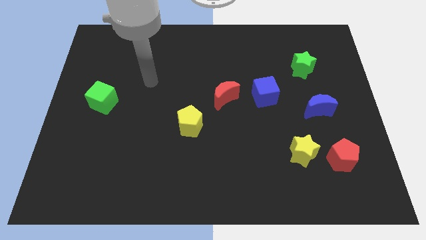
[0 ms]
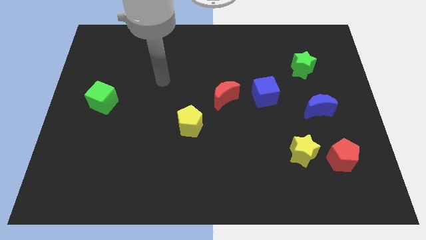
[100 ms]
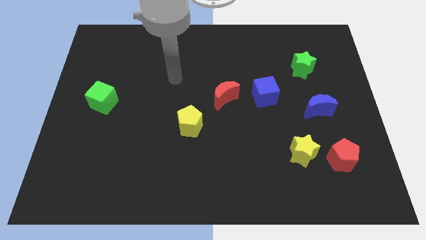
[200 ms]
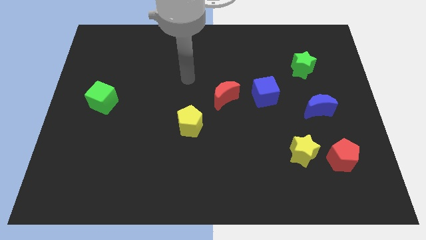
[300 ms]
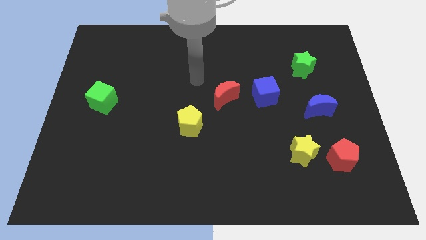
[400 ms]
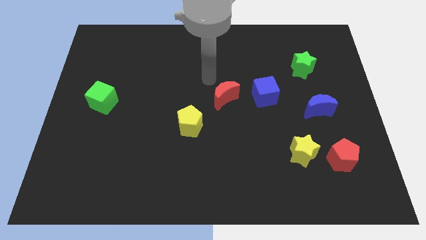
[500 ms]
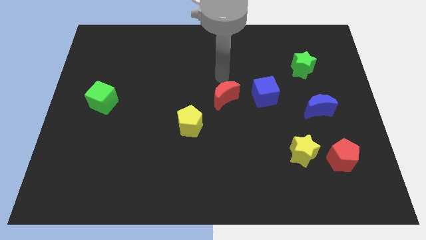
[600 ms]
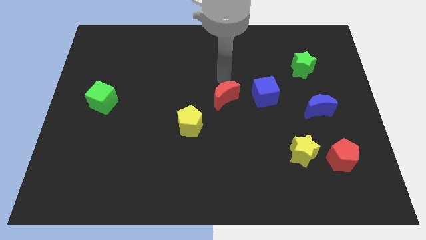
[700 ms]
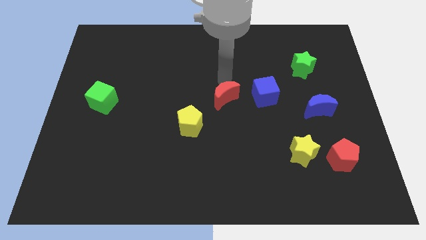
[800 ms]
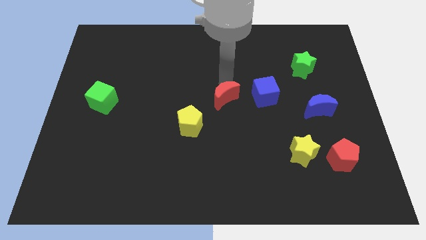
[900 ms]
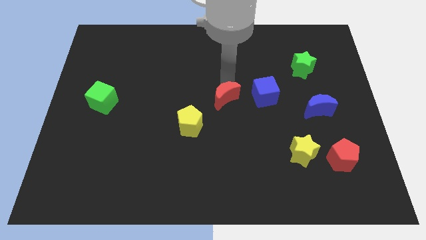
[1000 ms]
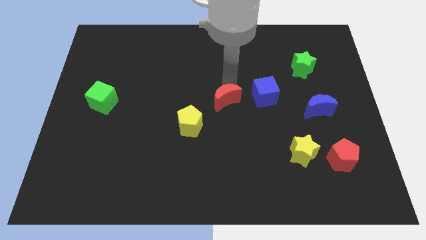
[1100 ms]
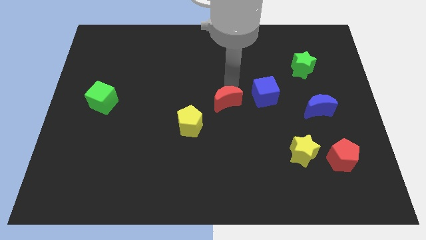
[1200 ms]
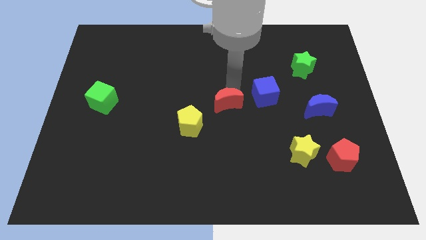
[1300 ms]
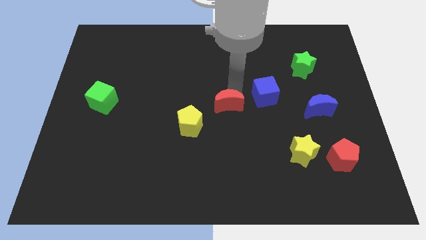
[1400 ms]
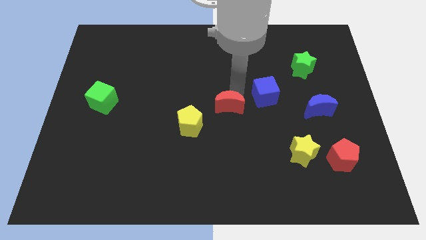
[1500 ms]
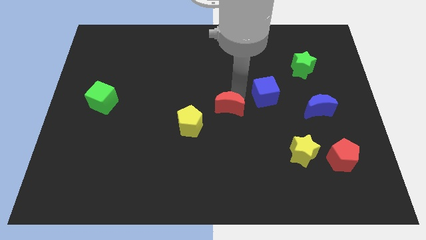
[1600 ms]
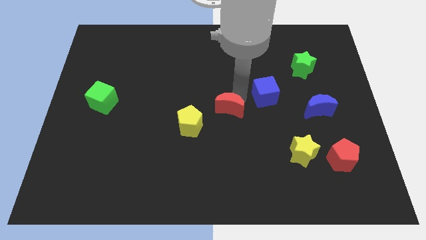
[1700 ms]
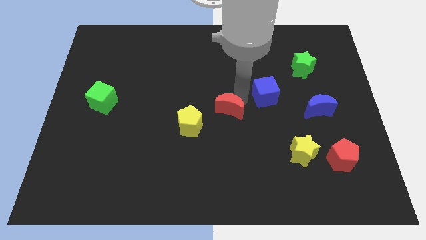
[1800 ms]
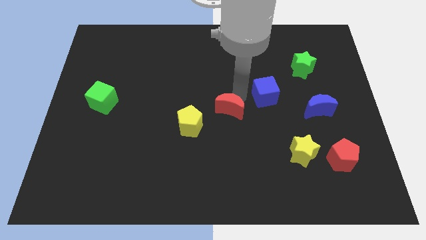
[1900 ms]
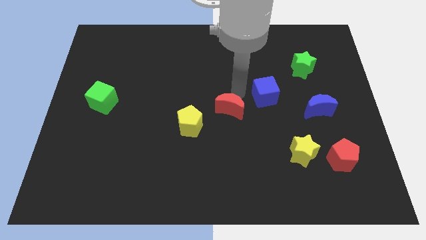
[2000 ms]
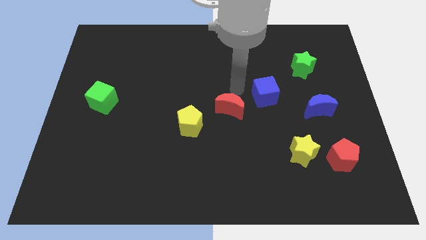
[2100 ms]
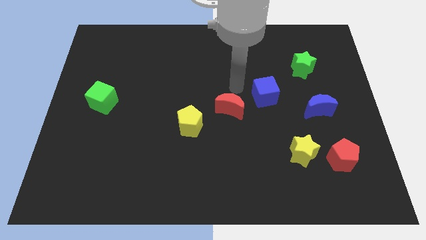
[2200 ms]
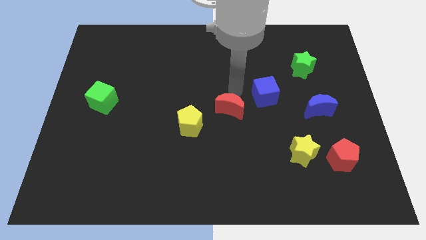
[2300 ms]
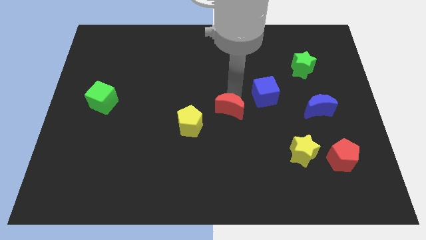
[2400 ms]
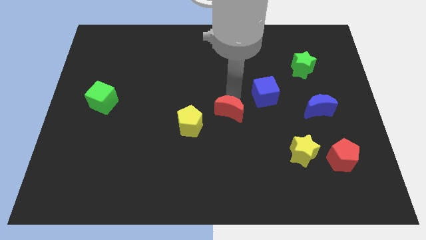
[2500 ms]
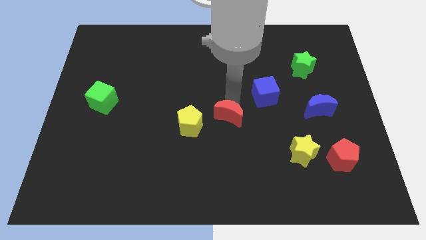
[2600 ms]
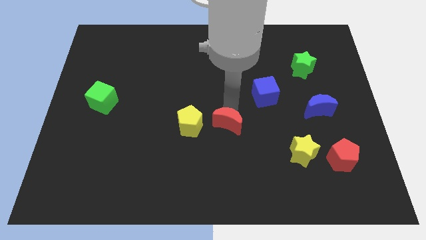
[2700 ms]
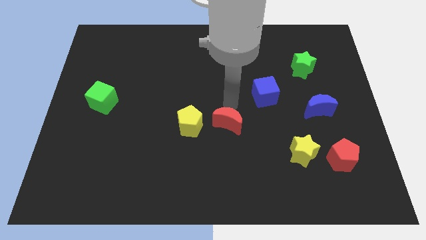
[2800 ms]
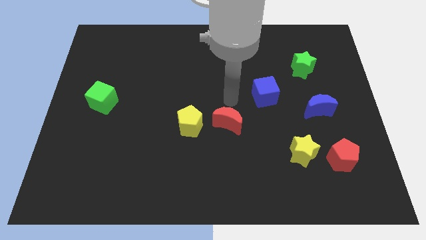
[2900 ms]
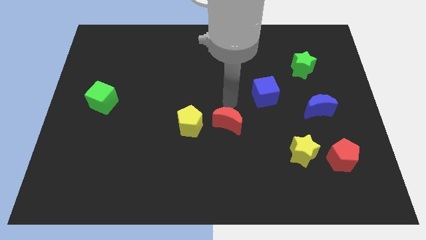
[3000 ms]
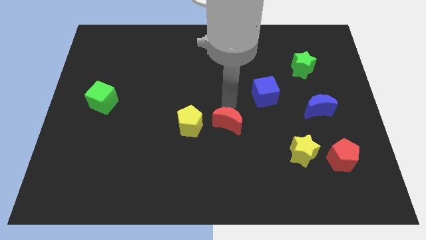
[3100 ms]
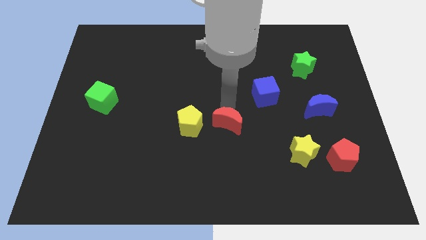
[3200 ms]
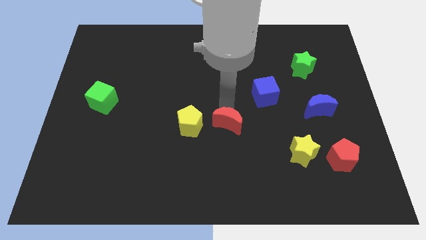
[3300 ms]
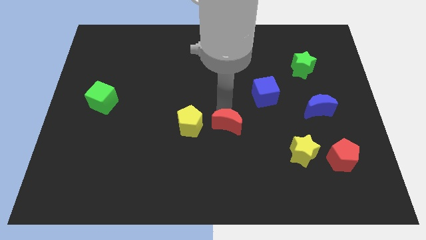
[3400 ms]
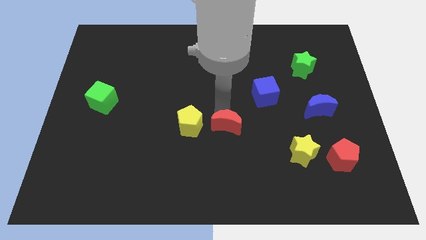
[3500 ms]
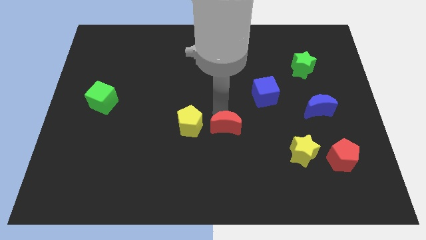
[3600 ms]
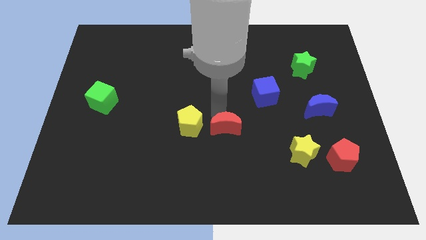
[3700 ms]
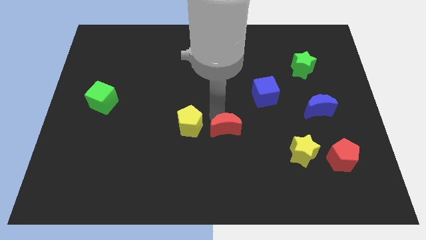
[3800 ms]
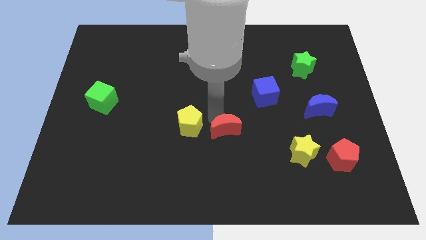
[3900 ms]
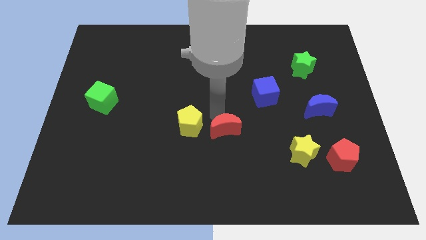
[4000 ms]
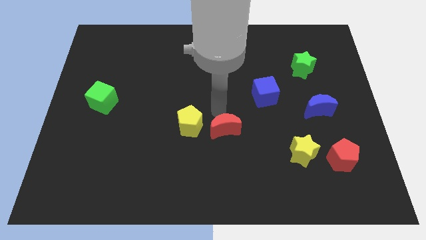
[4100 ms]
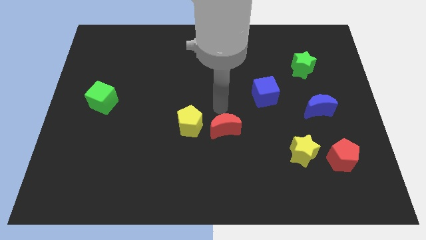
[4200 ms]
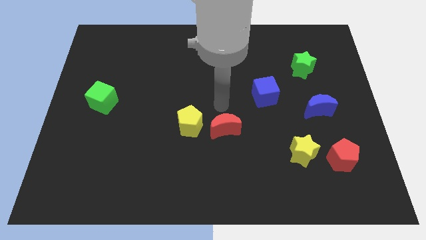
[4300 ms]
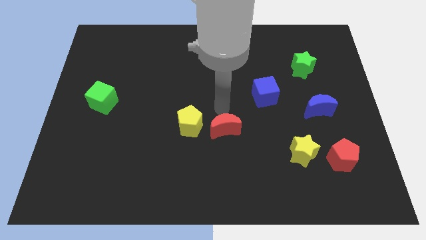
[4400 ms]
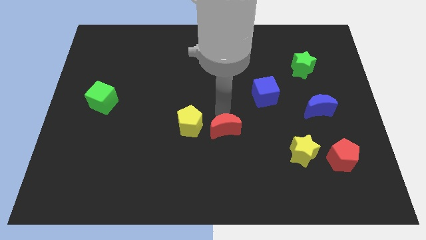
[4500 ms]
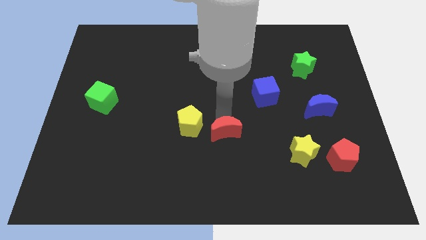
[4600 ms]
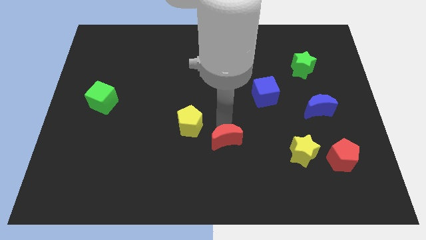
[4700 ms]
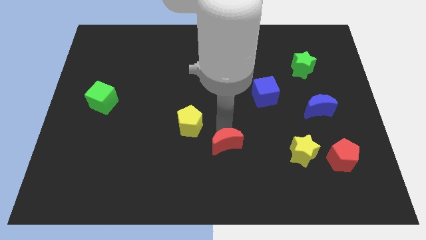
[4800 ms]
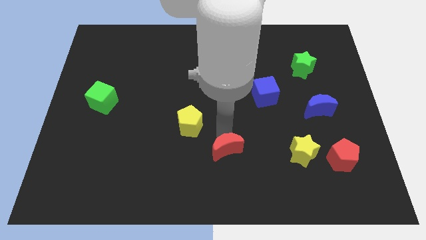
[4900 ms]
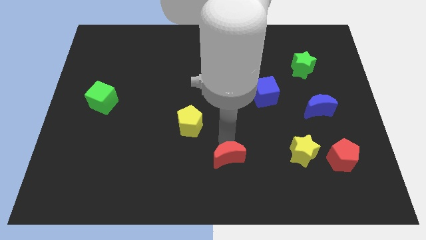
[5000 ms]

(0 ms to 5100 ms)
put the red moon to the bottom

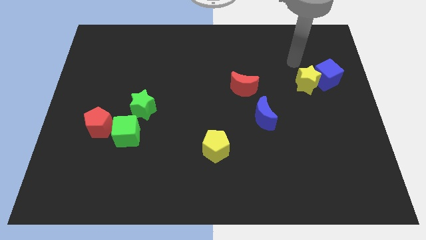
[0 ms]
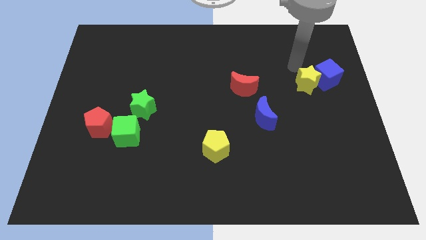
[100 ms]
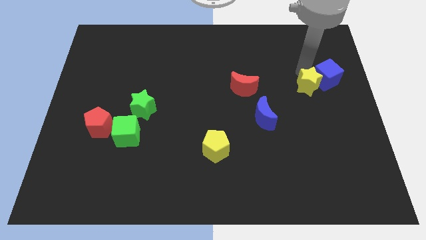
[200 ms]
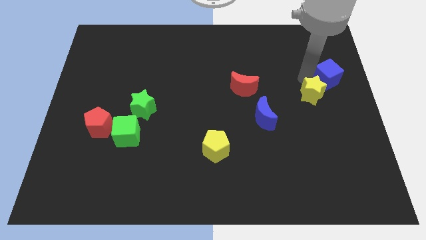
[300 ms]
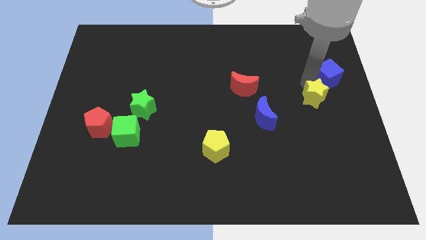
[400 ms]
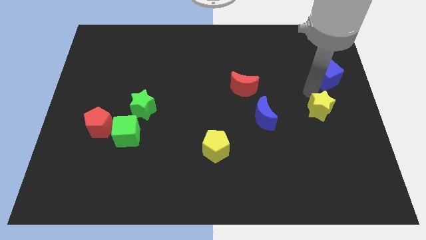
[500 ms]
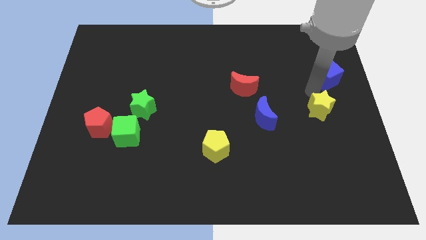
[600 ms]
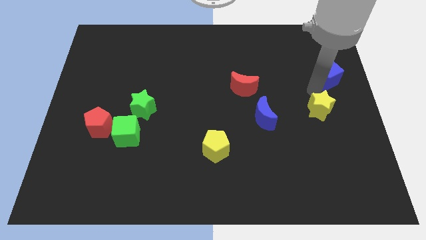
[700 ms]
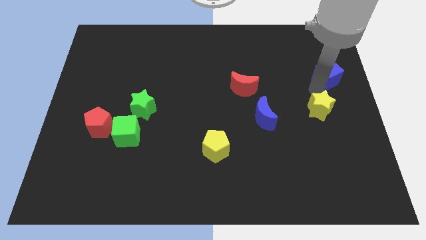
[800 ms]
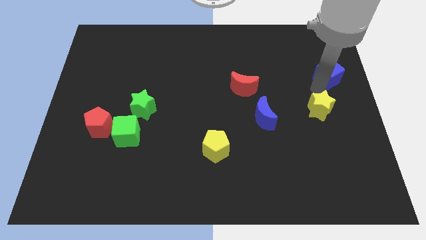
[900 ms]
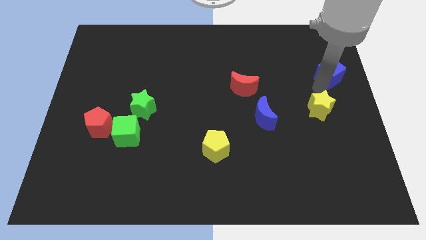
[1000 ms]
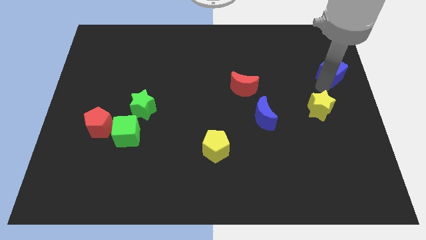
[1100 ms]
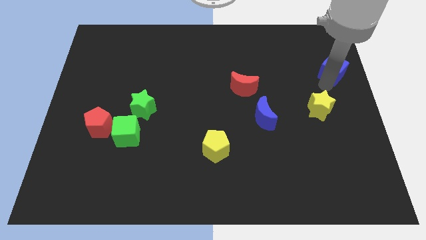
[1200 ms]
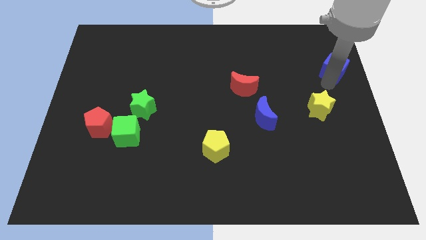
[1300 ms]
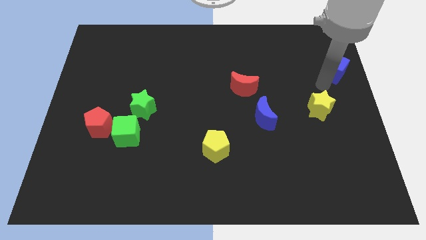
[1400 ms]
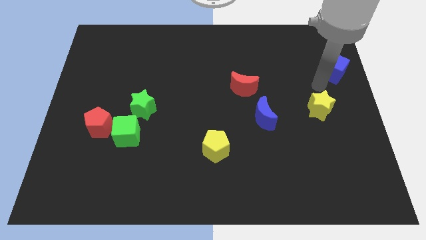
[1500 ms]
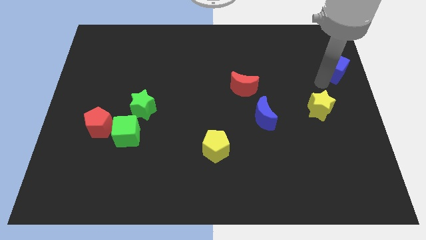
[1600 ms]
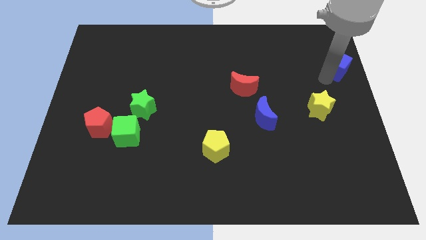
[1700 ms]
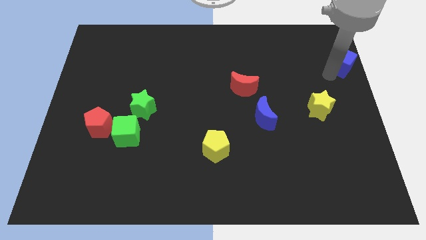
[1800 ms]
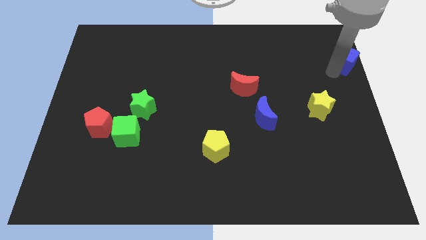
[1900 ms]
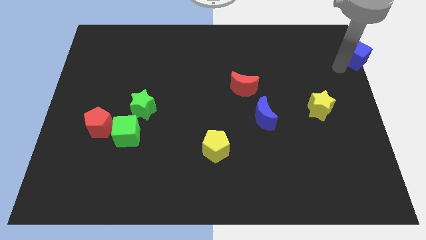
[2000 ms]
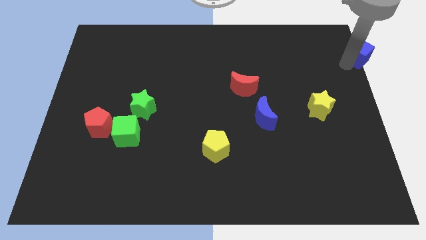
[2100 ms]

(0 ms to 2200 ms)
put the blue cube to the top right
